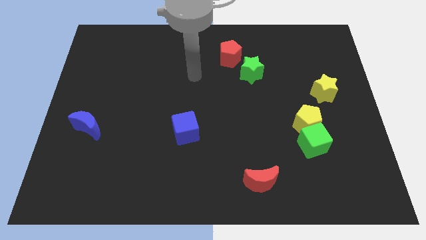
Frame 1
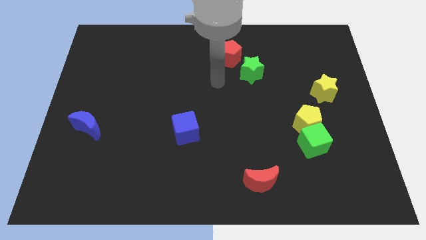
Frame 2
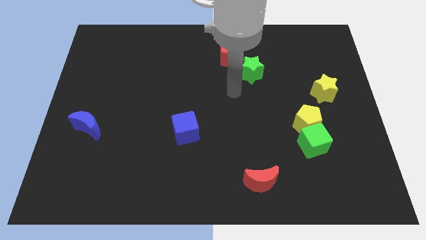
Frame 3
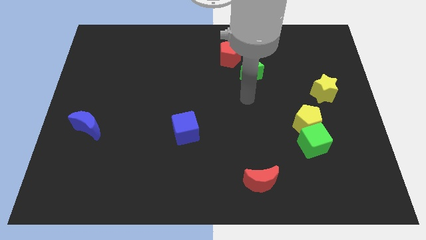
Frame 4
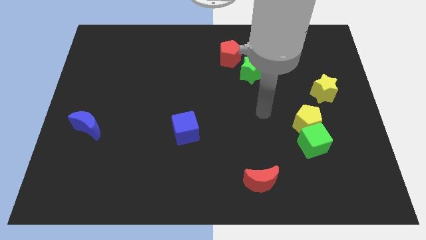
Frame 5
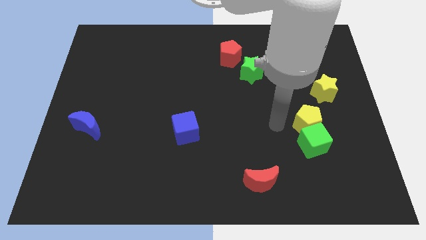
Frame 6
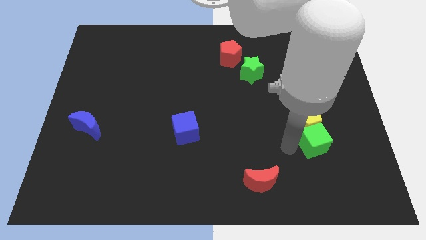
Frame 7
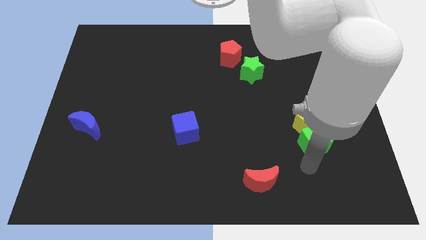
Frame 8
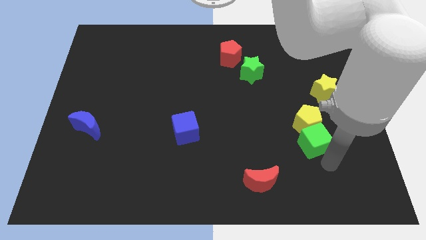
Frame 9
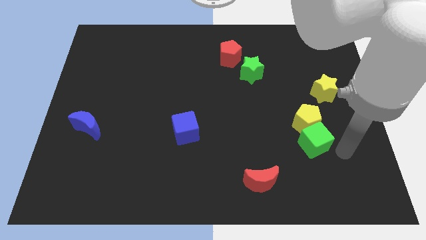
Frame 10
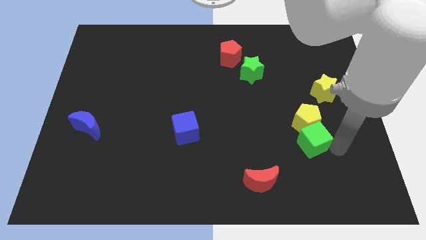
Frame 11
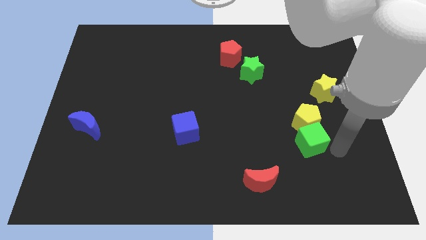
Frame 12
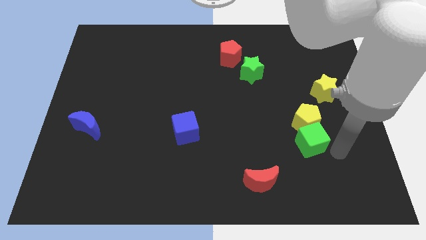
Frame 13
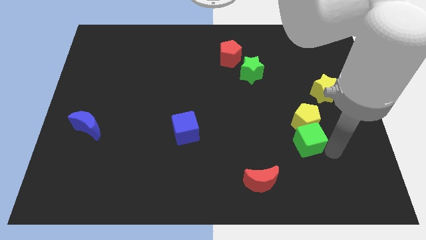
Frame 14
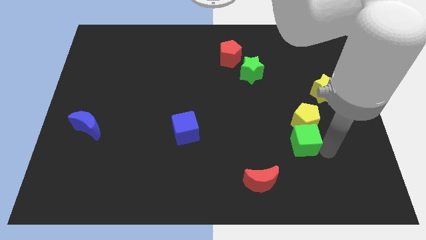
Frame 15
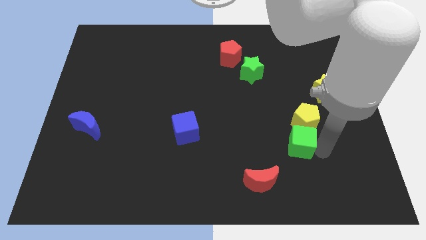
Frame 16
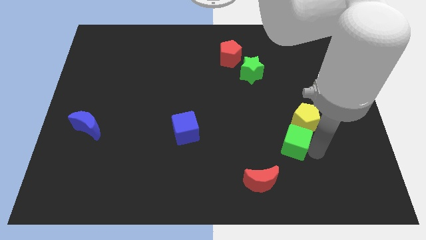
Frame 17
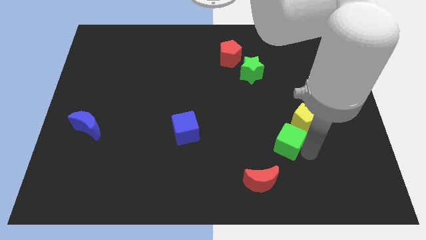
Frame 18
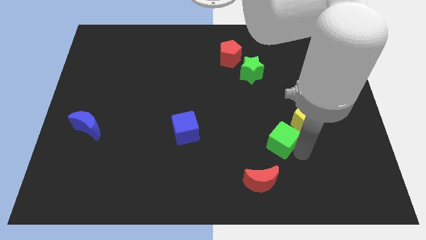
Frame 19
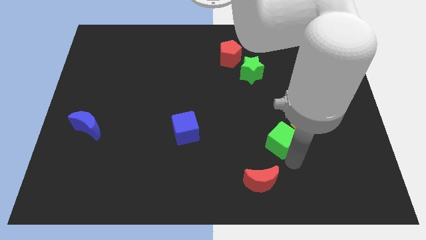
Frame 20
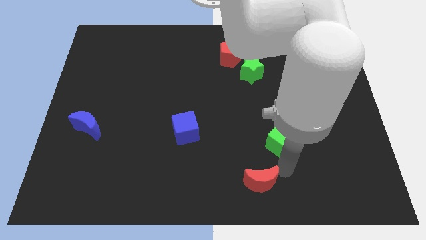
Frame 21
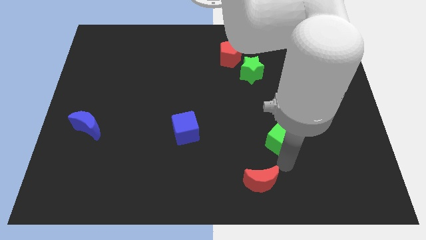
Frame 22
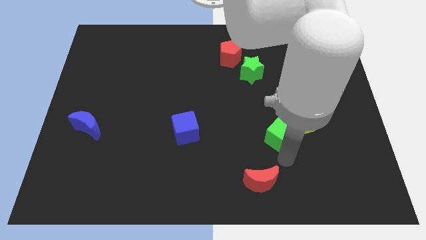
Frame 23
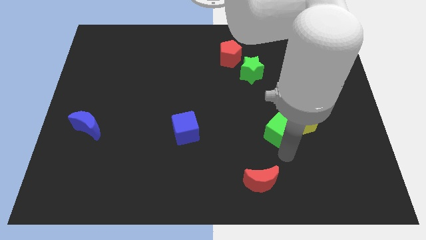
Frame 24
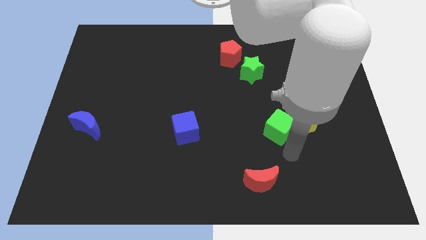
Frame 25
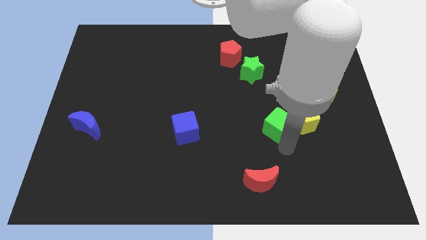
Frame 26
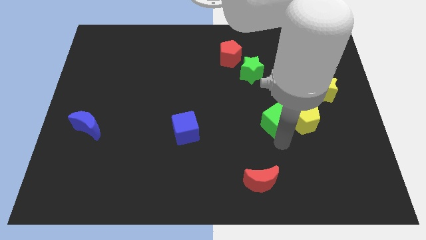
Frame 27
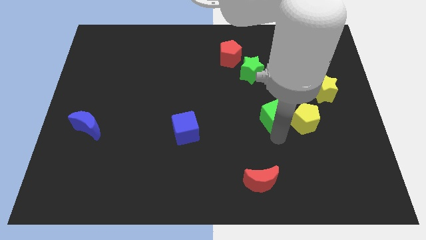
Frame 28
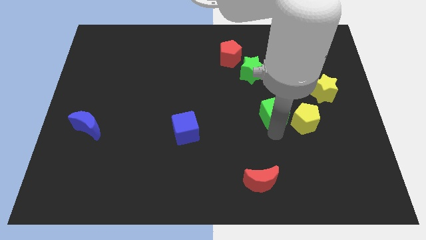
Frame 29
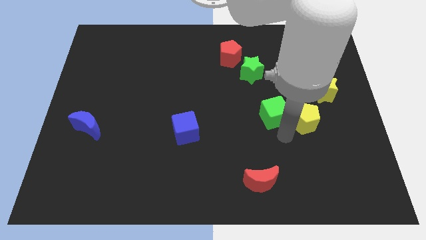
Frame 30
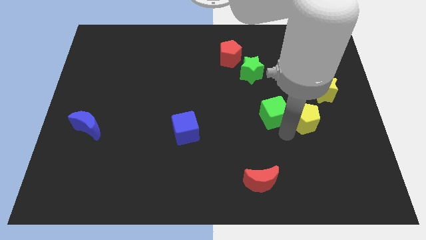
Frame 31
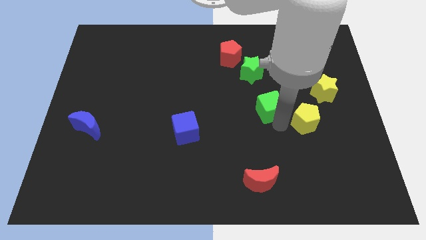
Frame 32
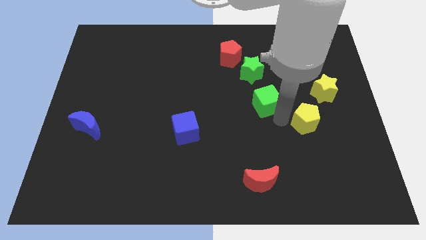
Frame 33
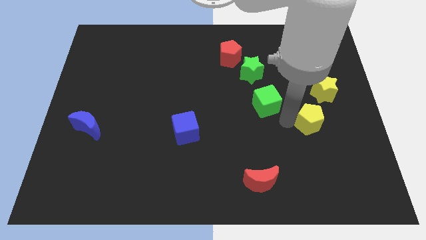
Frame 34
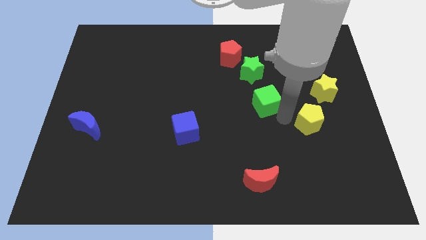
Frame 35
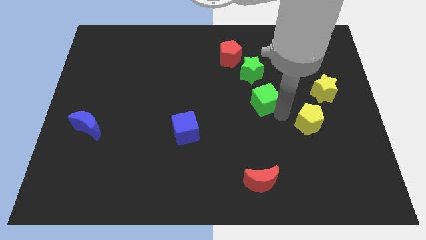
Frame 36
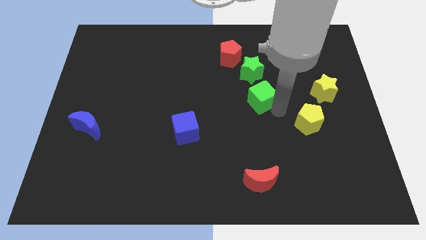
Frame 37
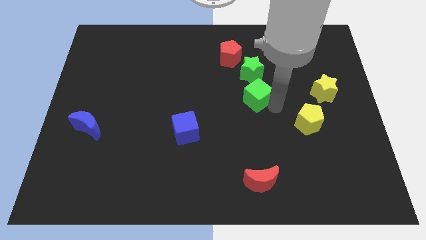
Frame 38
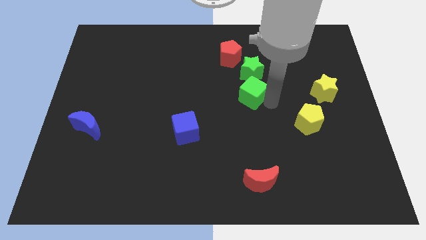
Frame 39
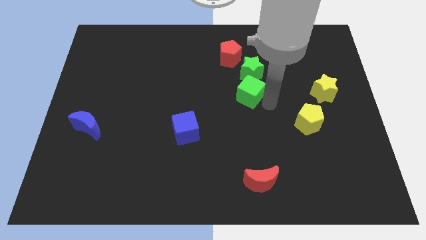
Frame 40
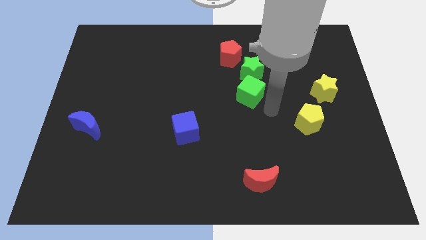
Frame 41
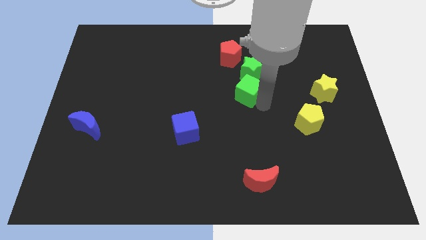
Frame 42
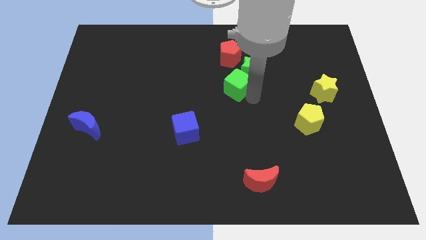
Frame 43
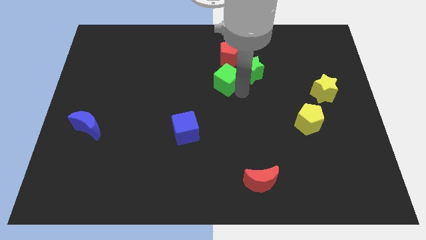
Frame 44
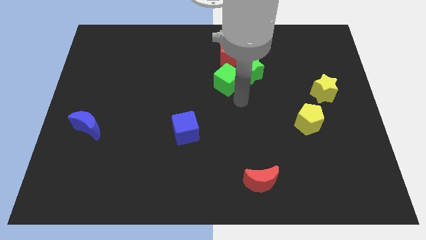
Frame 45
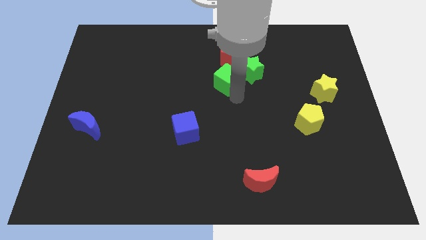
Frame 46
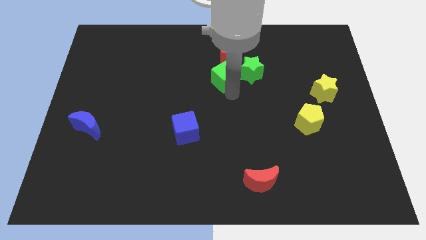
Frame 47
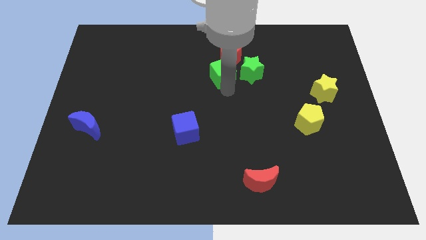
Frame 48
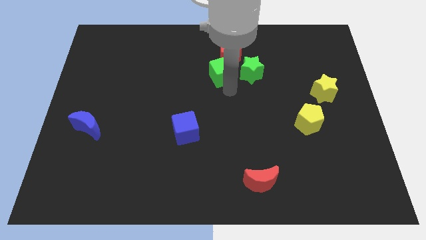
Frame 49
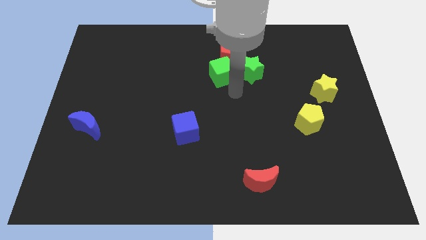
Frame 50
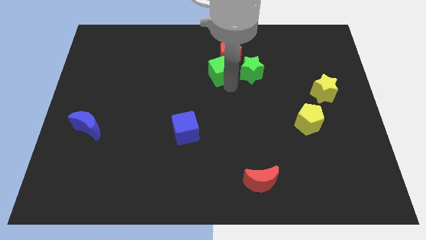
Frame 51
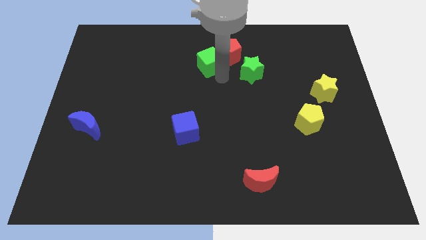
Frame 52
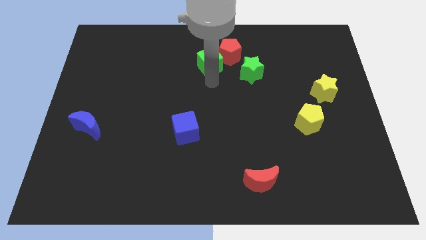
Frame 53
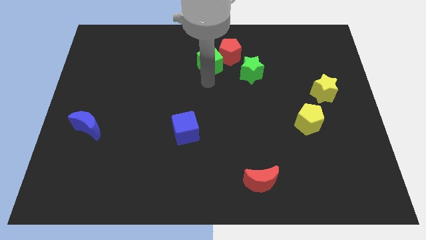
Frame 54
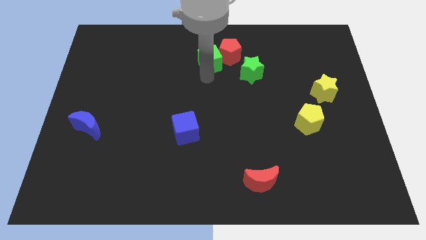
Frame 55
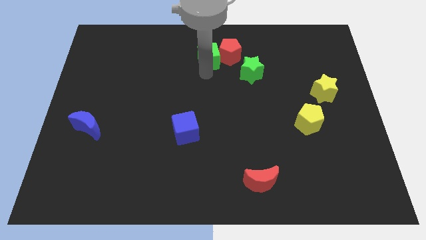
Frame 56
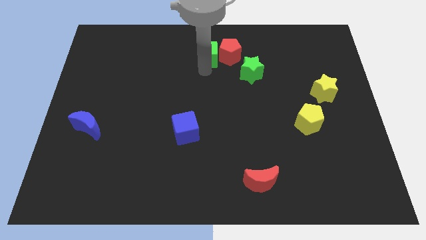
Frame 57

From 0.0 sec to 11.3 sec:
move the green cube to the towards your base
